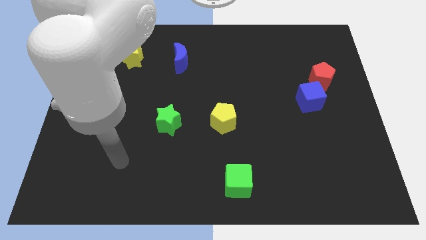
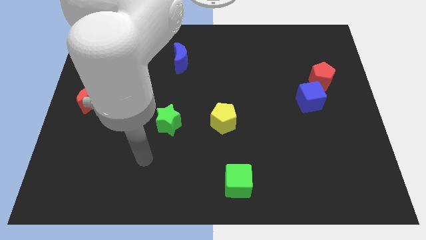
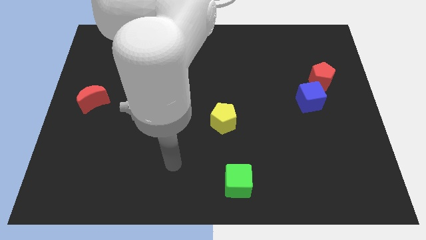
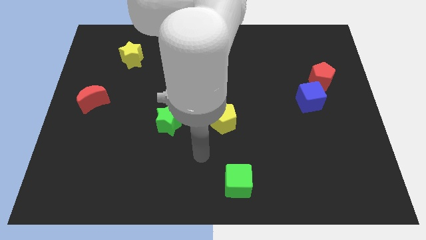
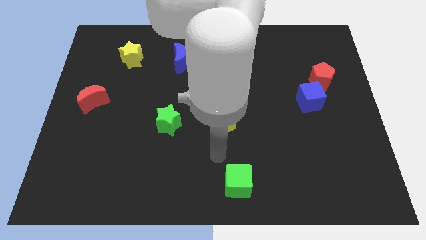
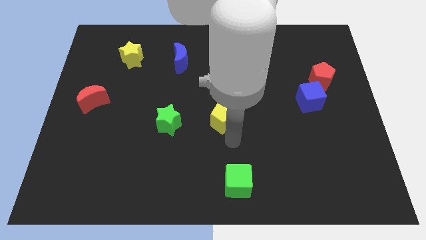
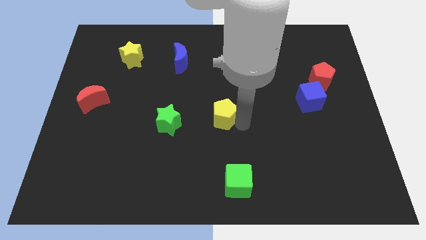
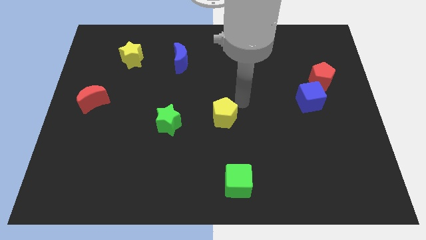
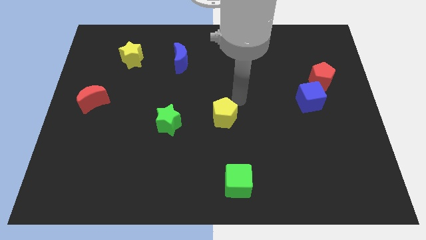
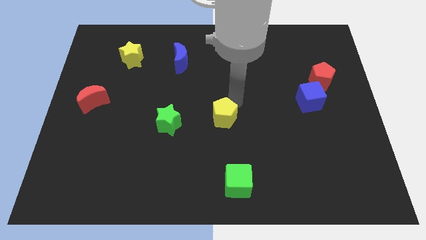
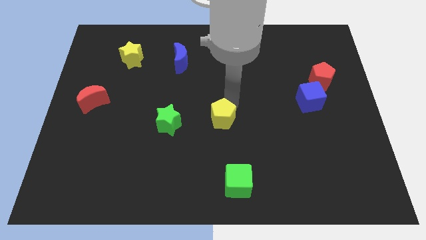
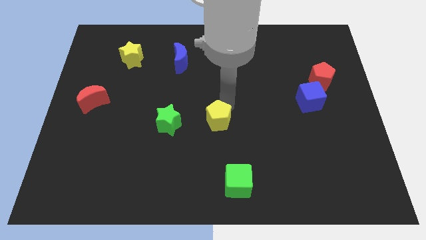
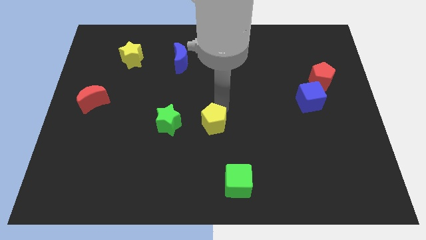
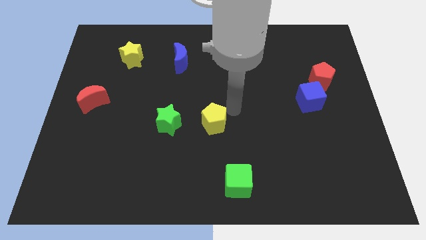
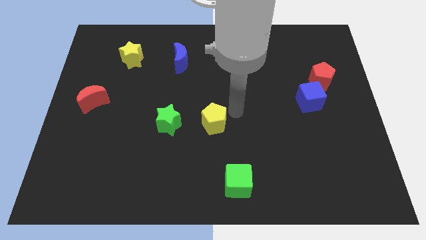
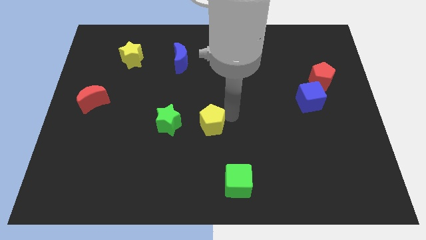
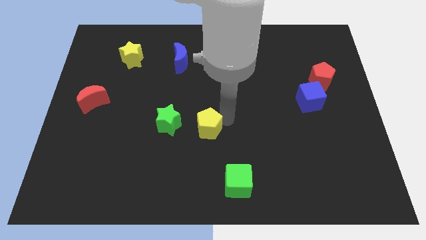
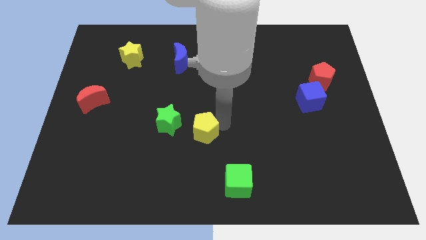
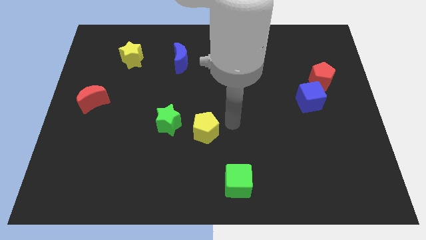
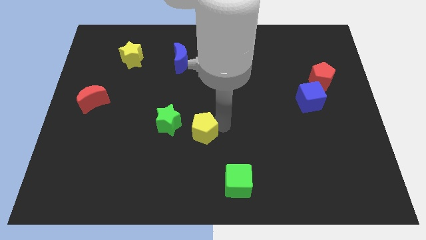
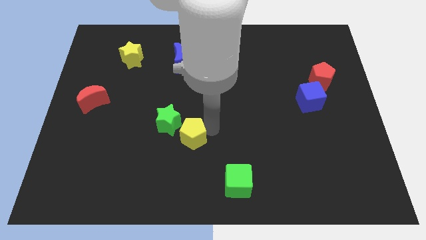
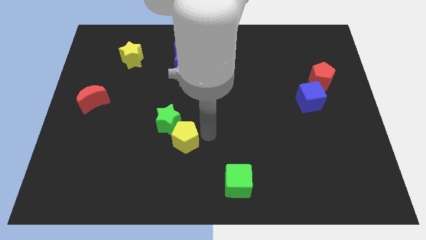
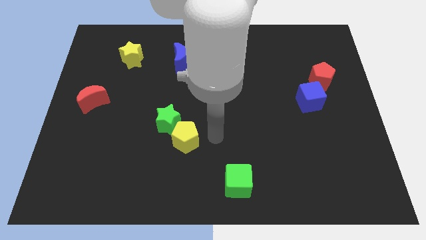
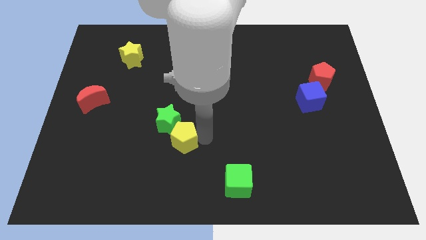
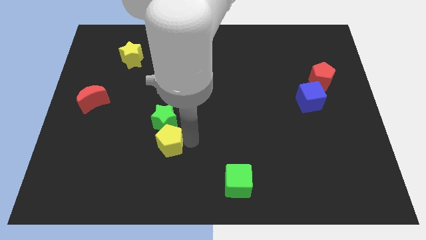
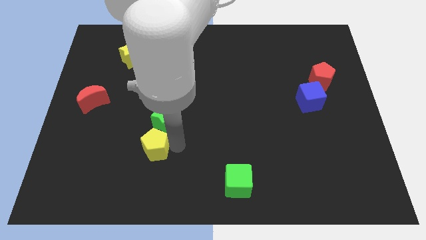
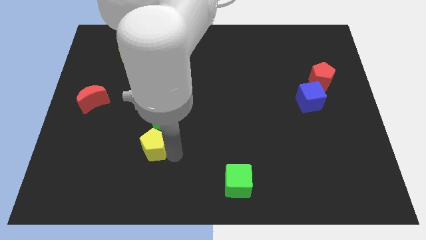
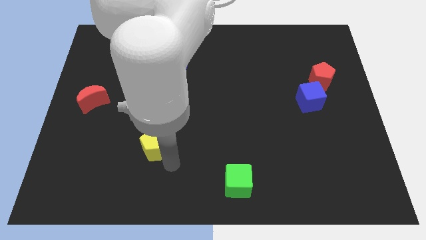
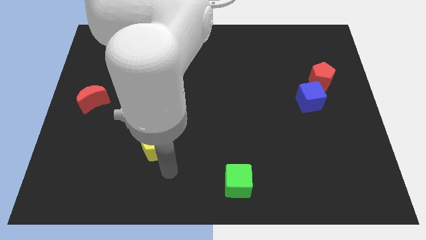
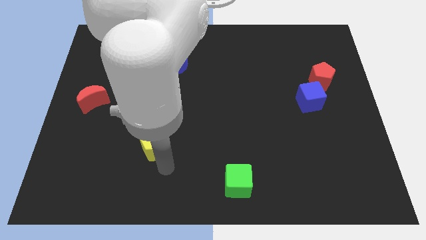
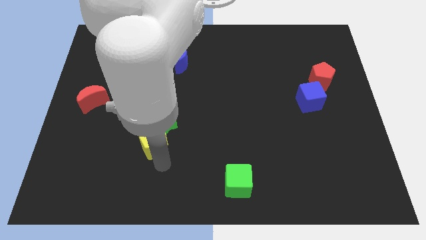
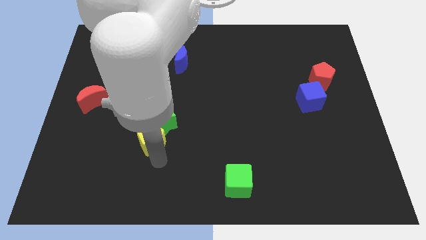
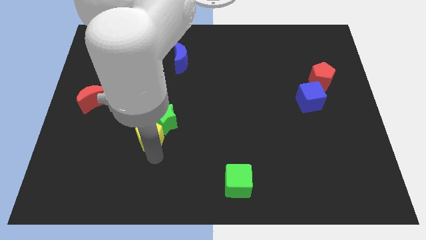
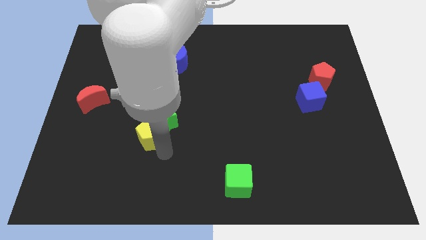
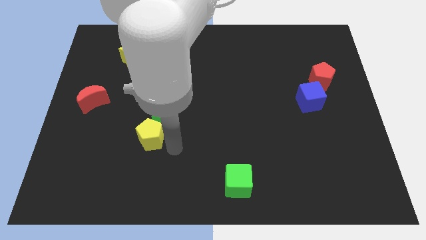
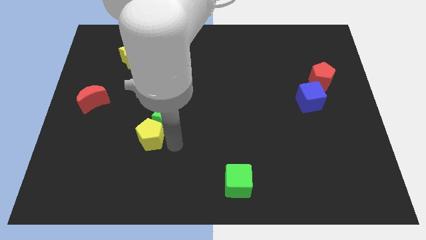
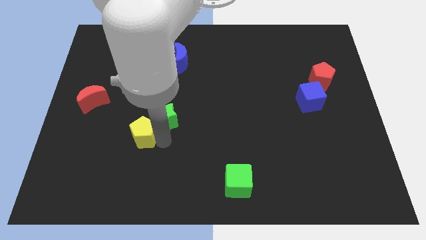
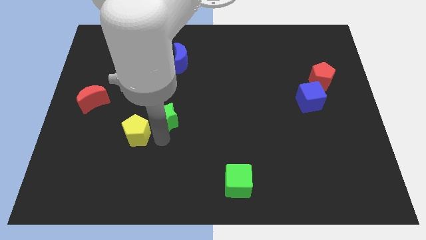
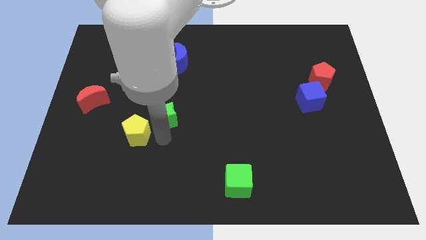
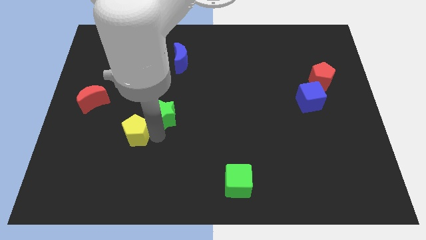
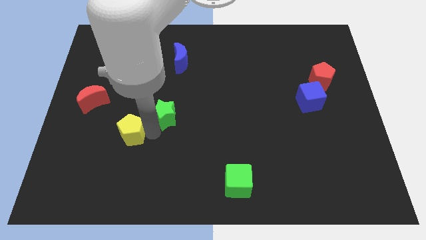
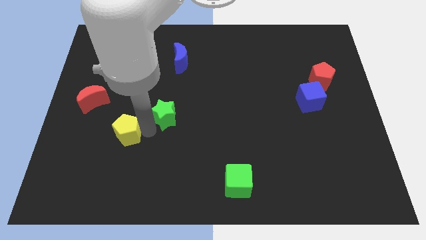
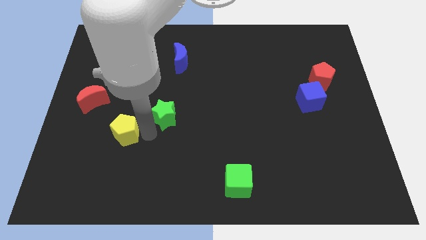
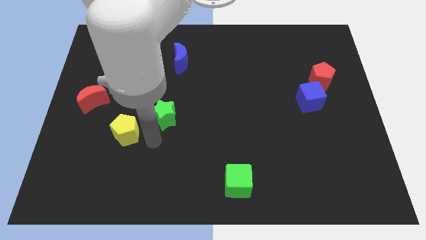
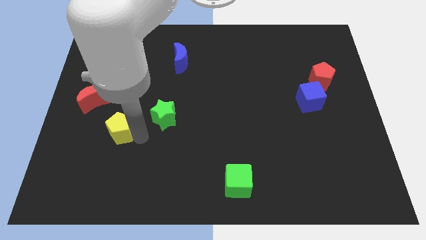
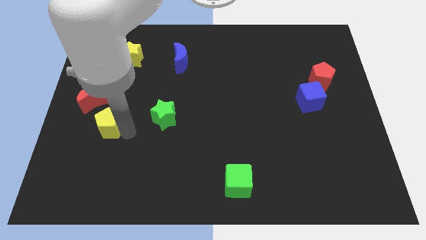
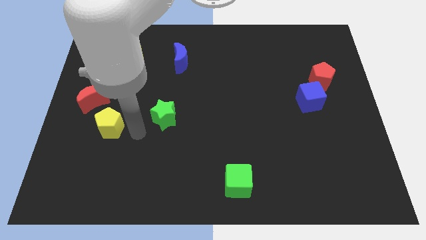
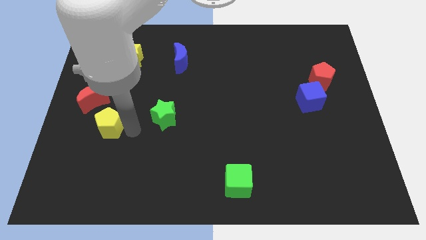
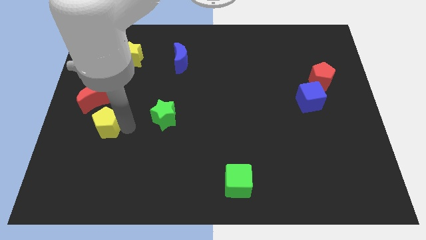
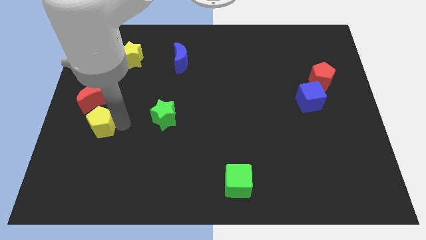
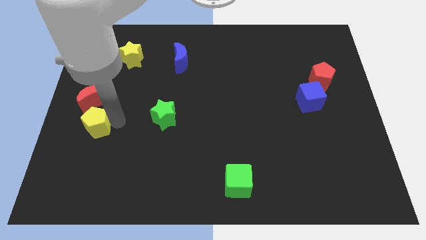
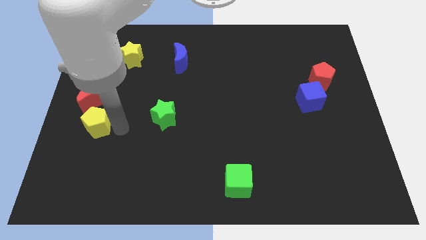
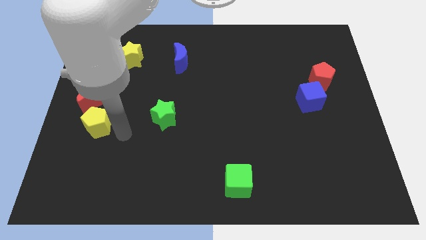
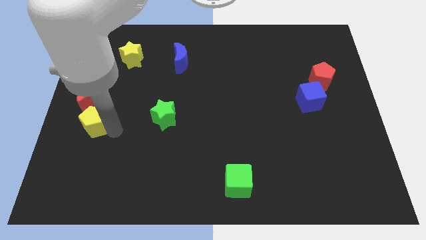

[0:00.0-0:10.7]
move the yellow pentagon to the left side

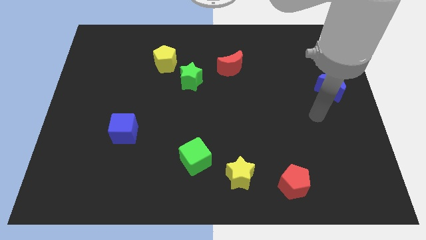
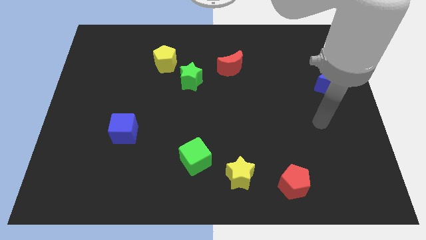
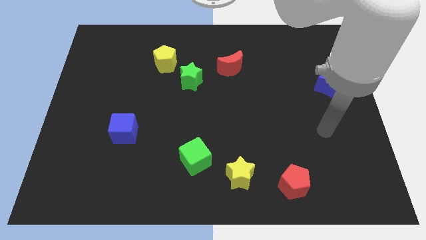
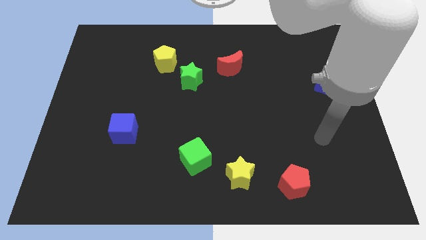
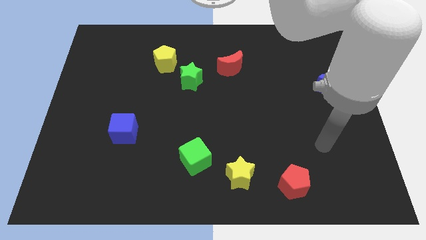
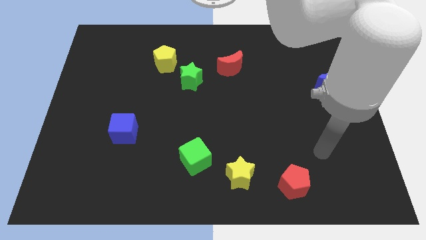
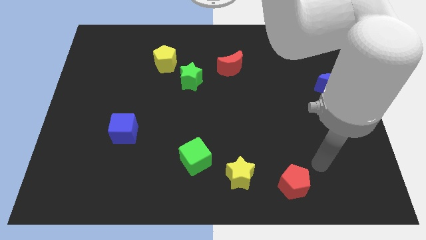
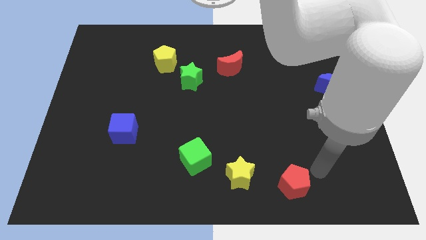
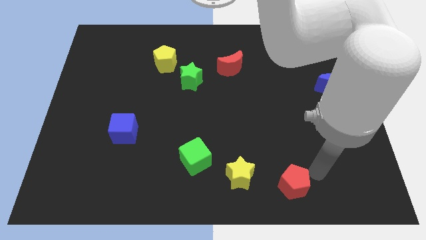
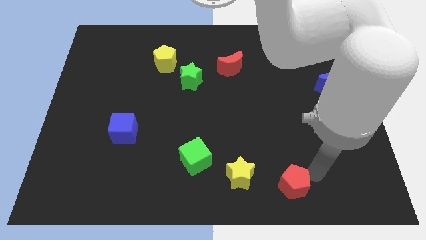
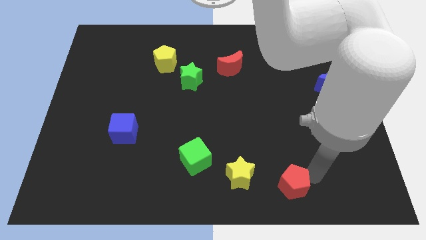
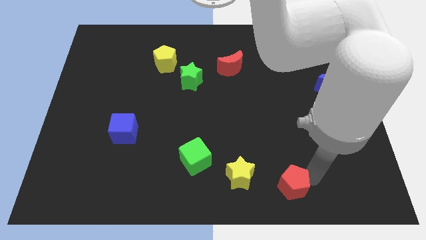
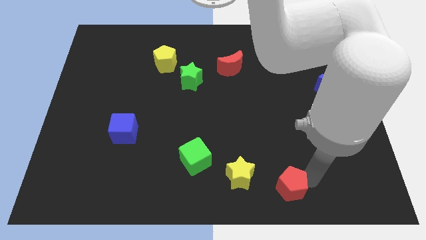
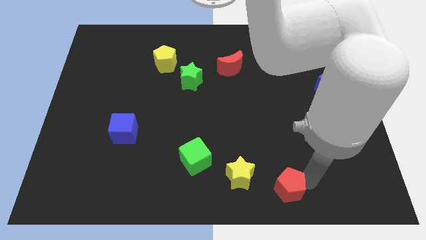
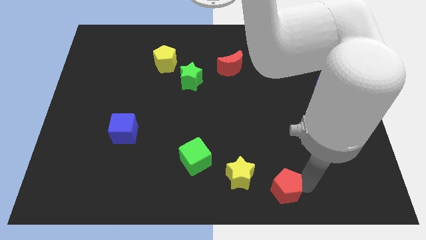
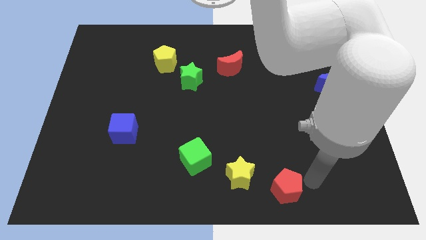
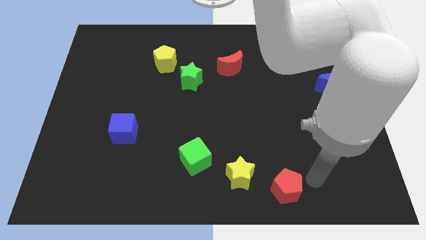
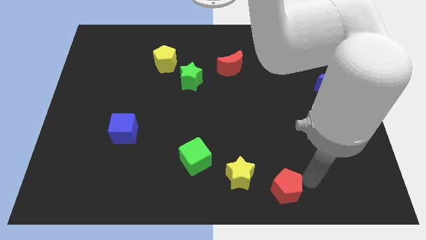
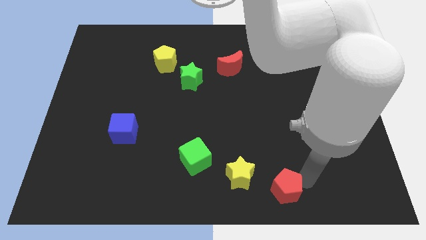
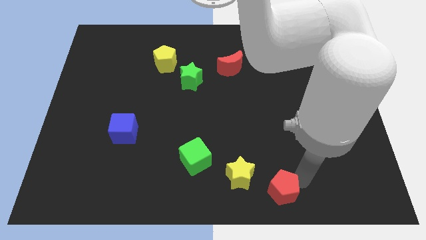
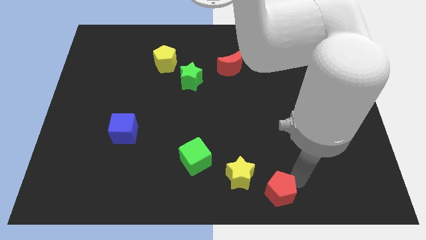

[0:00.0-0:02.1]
push the red pentagon to the bottom side

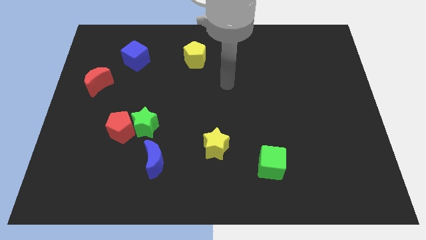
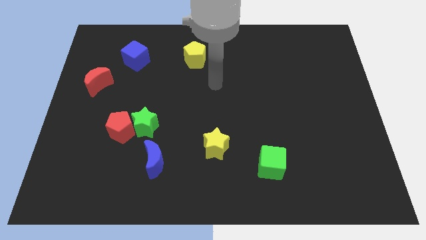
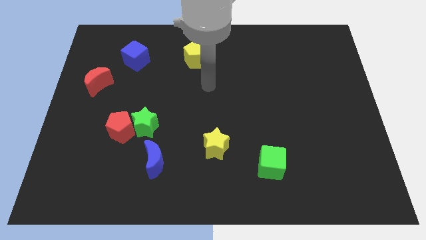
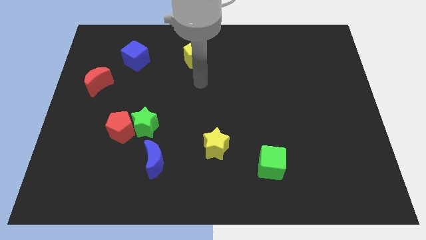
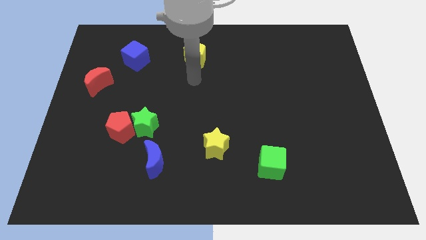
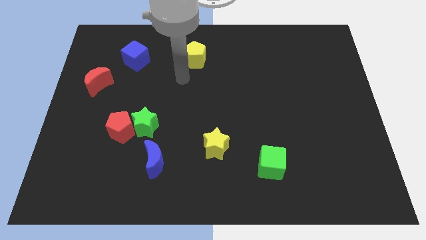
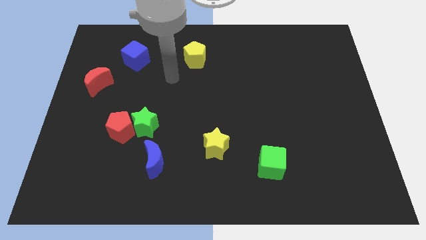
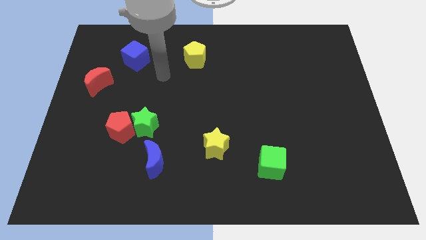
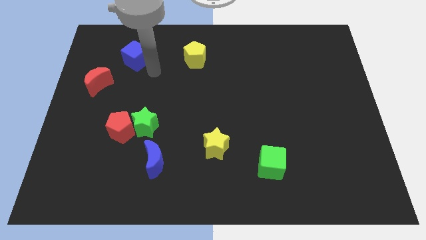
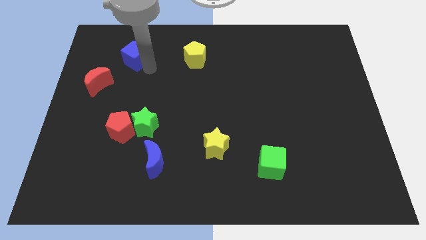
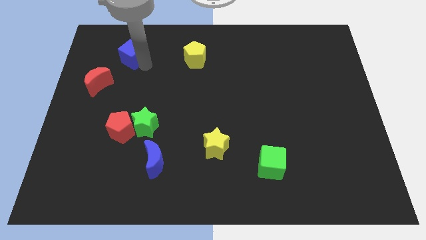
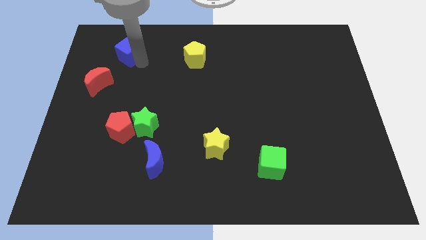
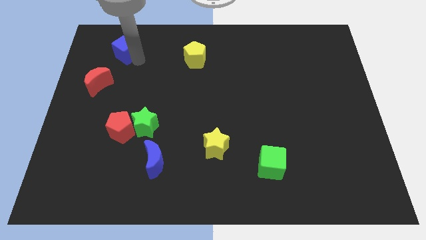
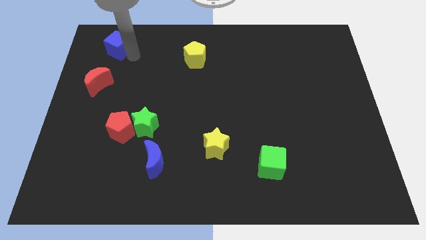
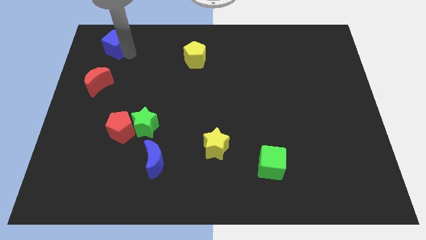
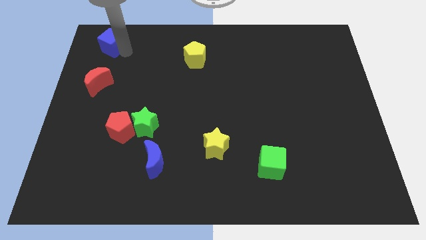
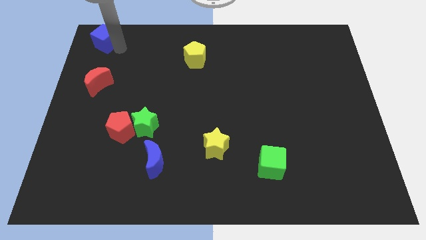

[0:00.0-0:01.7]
push the blue cube to the top left
